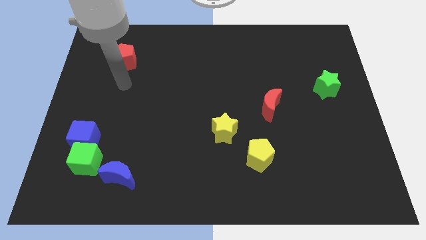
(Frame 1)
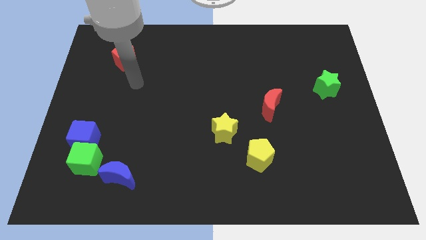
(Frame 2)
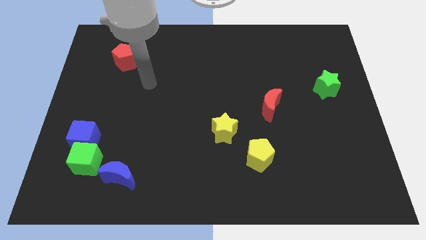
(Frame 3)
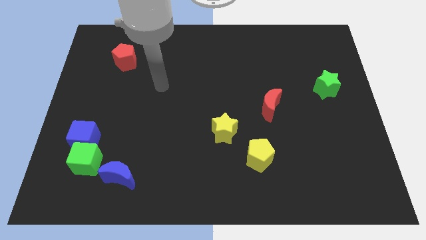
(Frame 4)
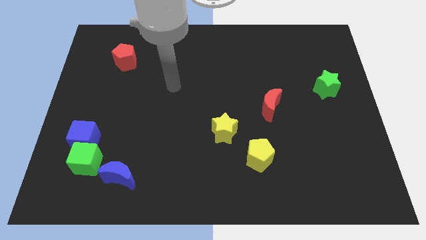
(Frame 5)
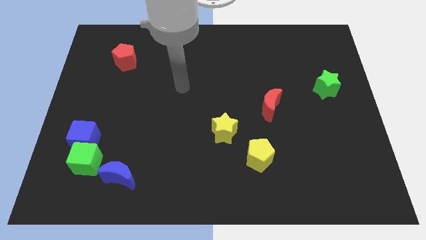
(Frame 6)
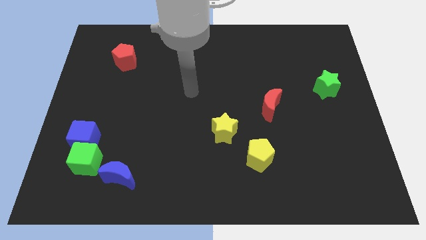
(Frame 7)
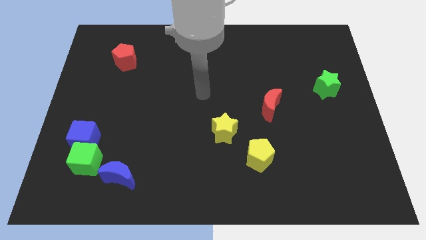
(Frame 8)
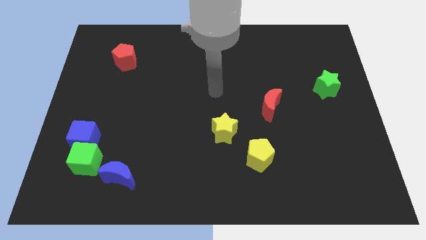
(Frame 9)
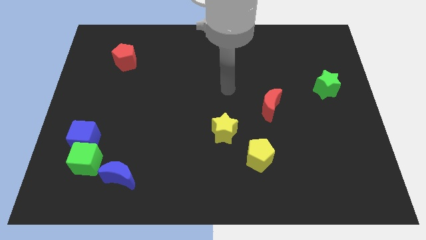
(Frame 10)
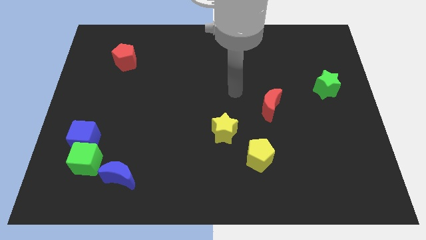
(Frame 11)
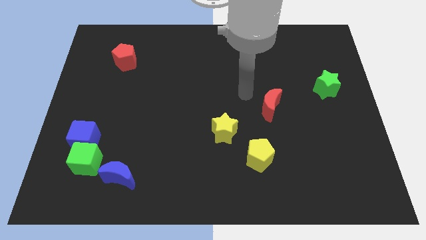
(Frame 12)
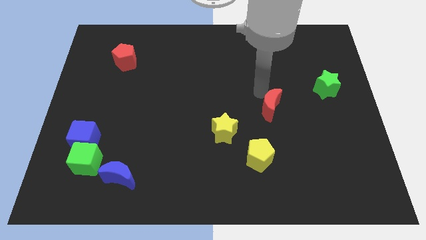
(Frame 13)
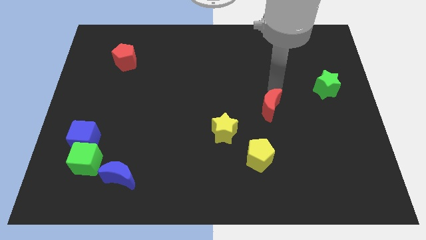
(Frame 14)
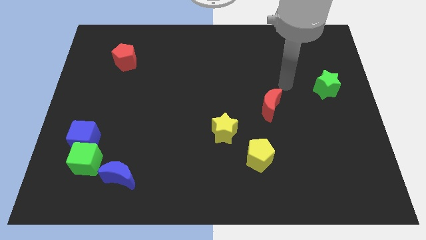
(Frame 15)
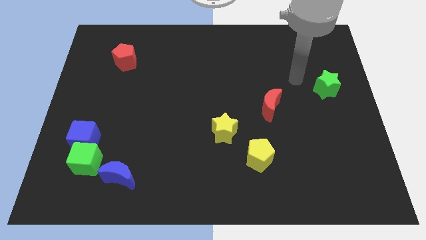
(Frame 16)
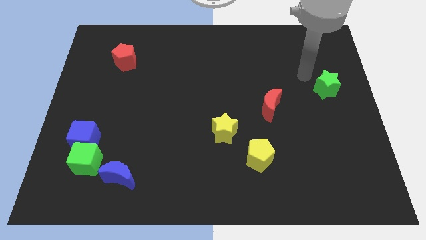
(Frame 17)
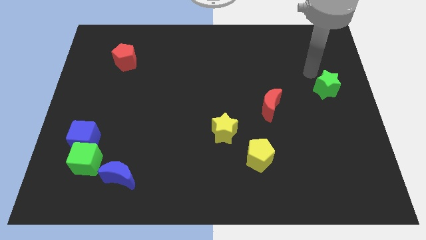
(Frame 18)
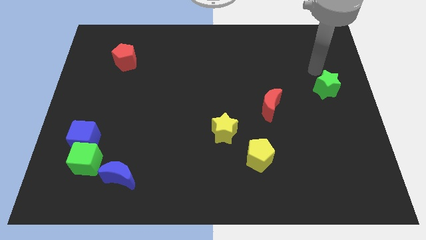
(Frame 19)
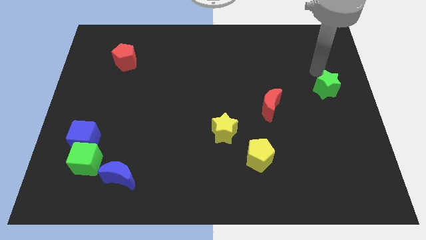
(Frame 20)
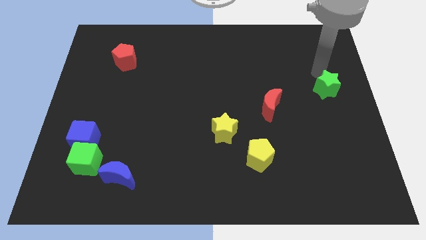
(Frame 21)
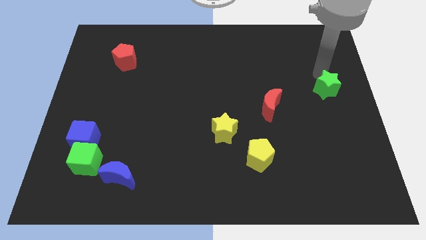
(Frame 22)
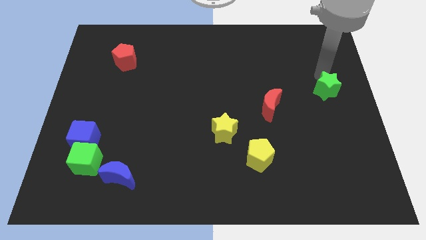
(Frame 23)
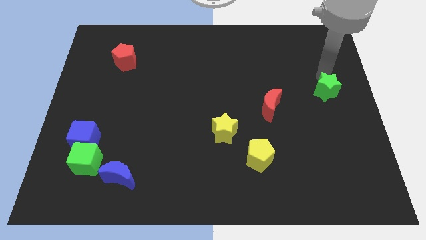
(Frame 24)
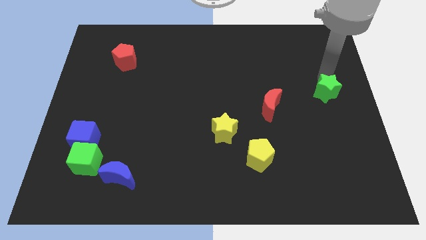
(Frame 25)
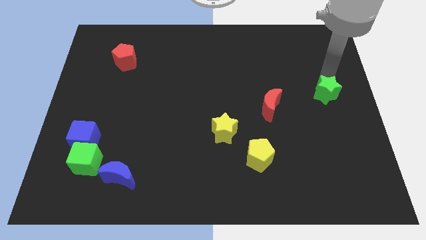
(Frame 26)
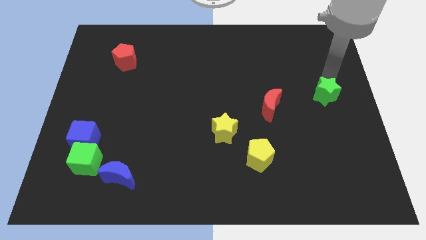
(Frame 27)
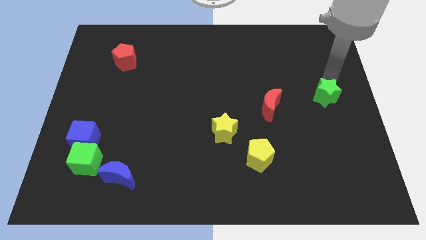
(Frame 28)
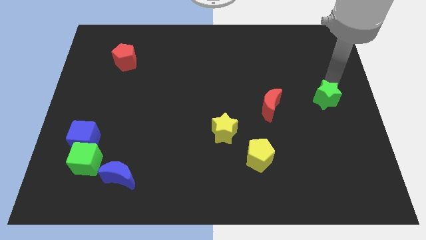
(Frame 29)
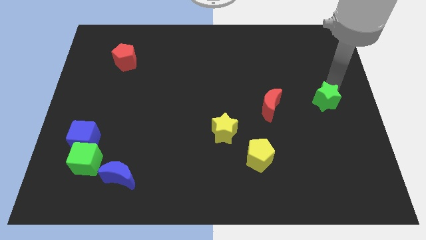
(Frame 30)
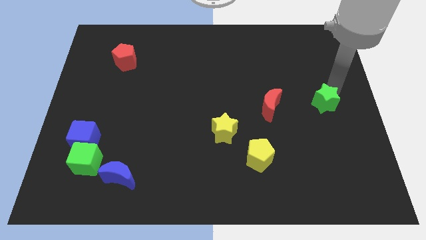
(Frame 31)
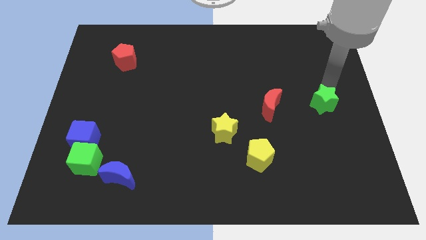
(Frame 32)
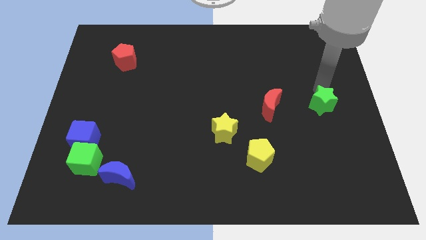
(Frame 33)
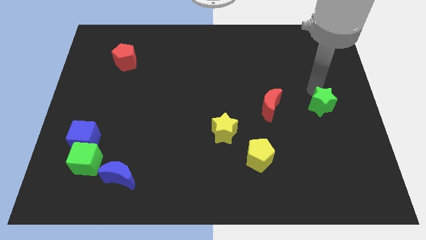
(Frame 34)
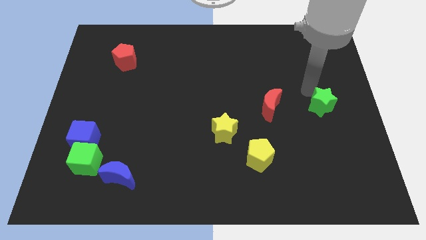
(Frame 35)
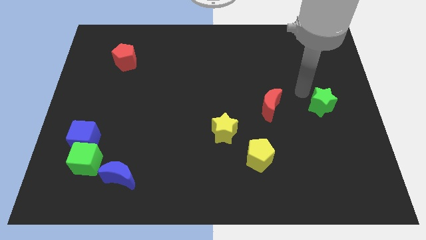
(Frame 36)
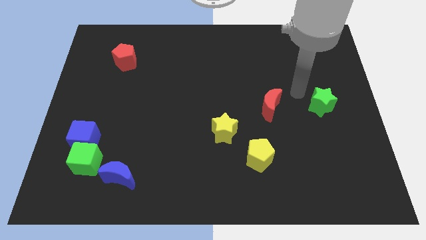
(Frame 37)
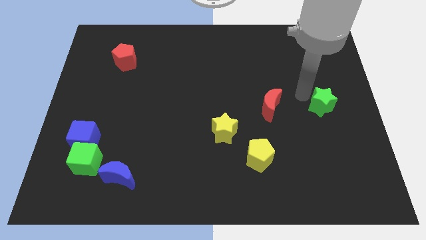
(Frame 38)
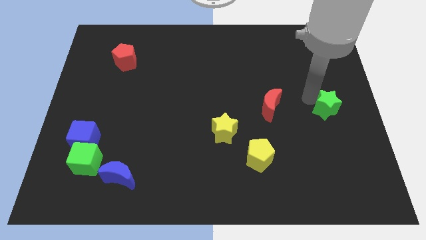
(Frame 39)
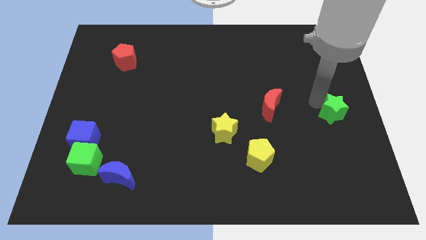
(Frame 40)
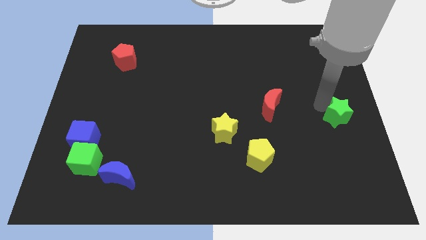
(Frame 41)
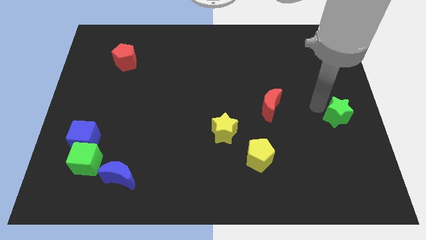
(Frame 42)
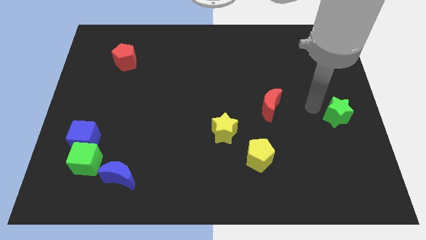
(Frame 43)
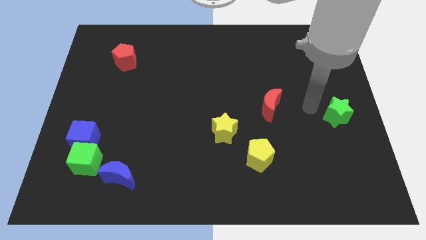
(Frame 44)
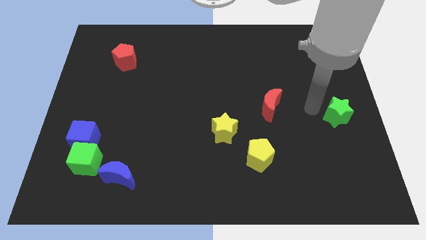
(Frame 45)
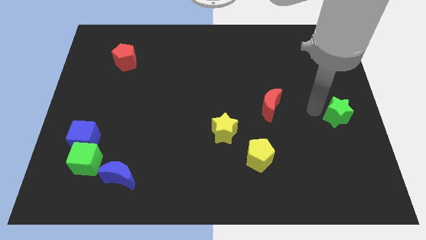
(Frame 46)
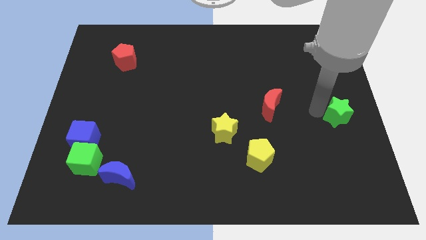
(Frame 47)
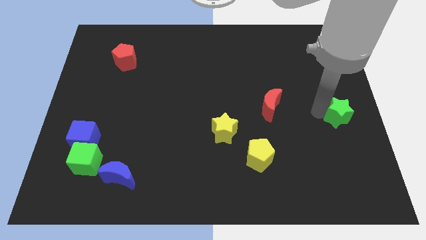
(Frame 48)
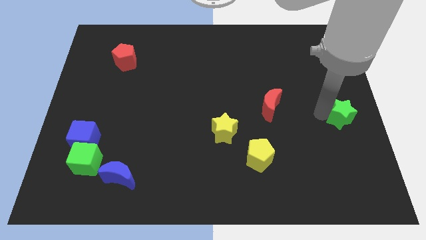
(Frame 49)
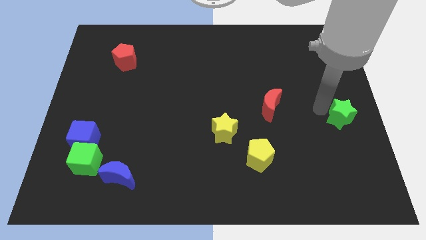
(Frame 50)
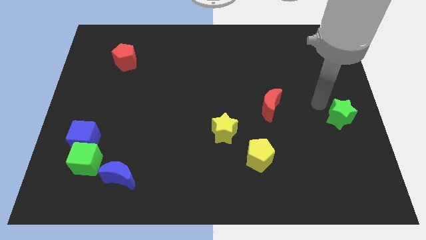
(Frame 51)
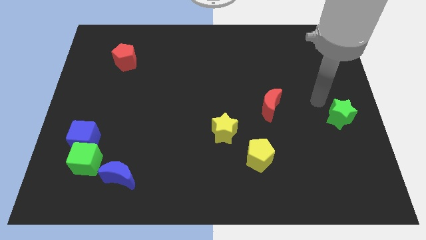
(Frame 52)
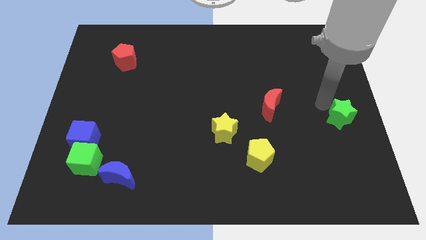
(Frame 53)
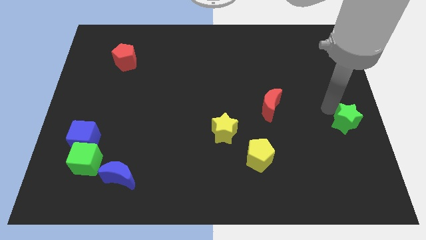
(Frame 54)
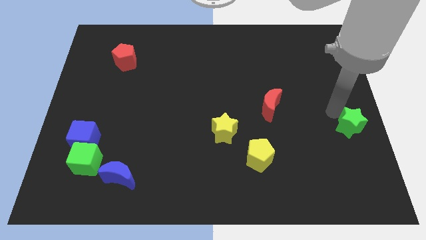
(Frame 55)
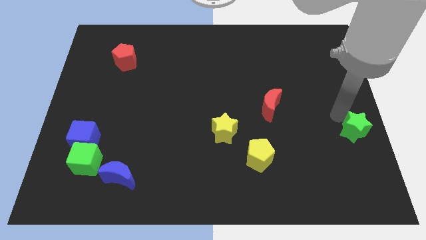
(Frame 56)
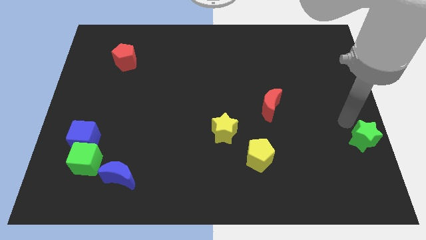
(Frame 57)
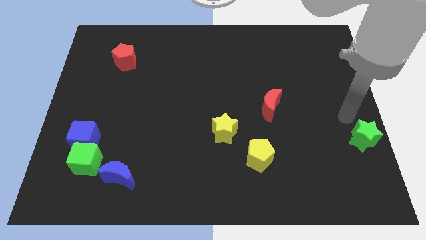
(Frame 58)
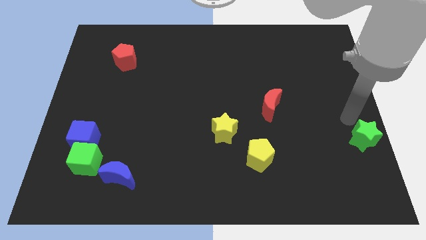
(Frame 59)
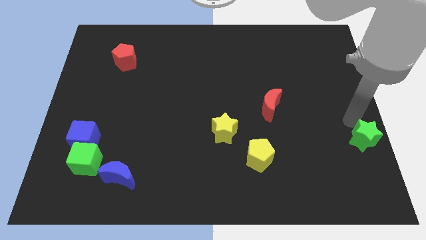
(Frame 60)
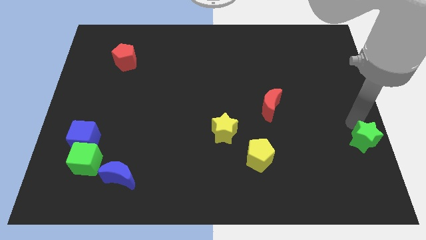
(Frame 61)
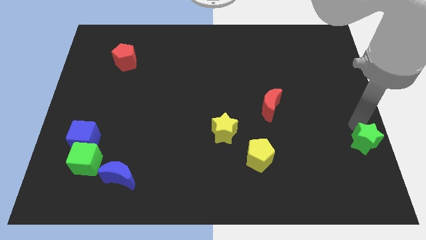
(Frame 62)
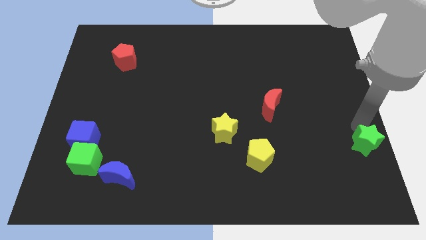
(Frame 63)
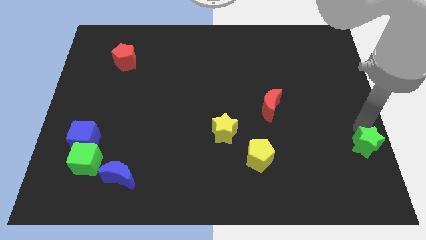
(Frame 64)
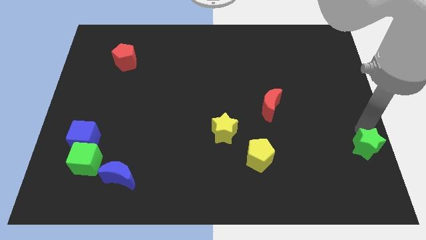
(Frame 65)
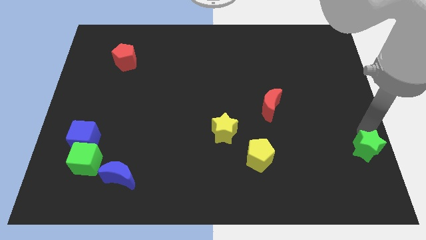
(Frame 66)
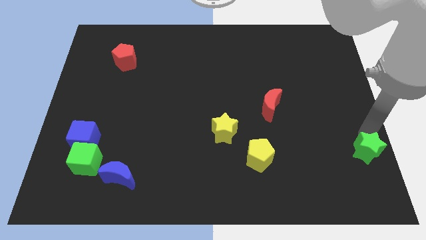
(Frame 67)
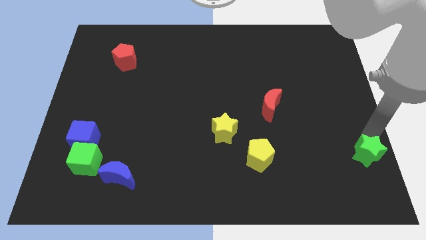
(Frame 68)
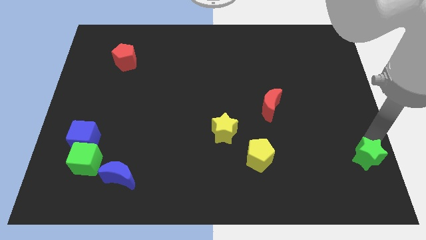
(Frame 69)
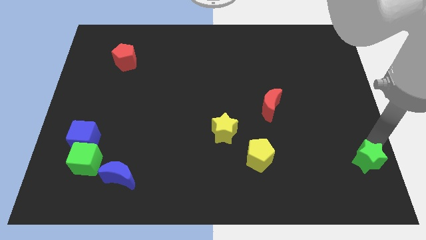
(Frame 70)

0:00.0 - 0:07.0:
move the green star to the bottom right
